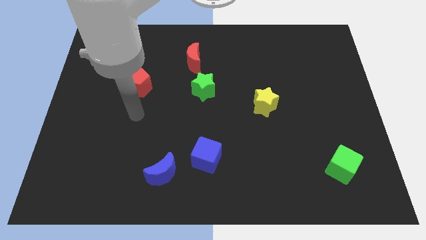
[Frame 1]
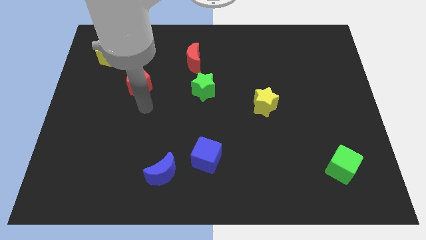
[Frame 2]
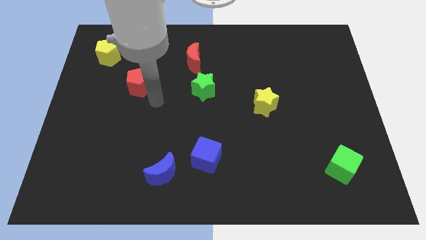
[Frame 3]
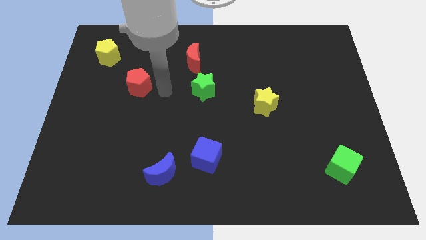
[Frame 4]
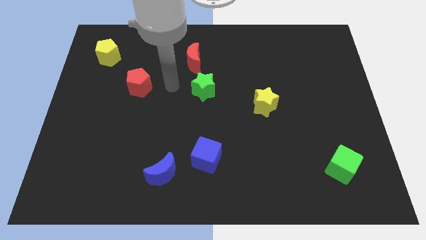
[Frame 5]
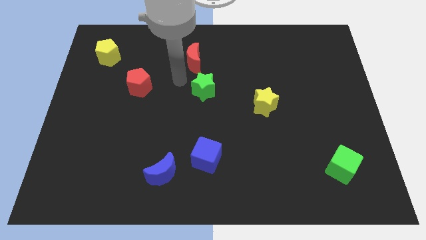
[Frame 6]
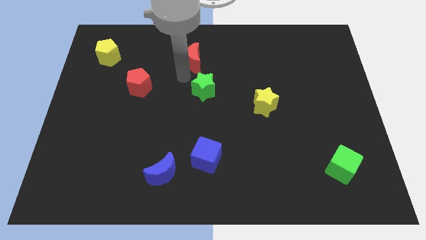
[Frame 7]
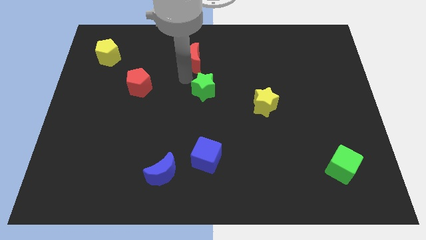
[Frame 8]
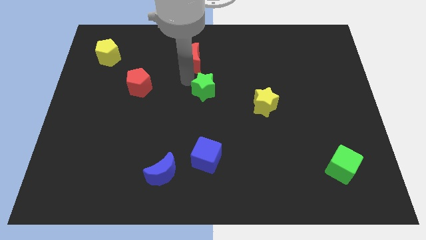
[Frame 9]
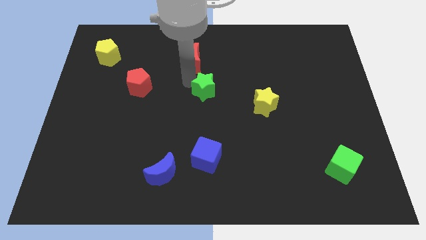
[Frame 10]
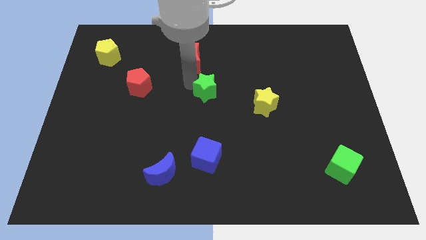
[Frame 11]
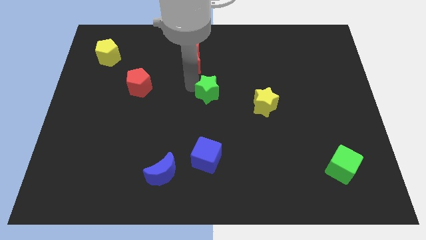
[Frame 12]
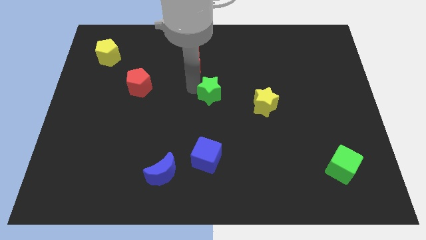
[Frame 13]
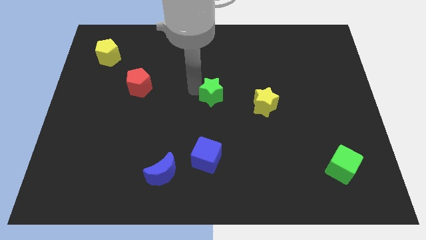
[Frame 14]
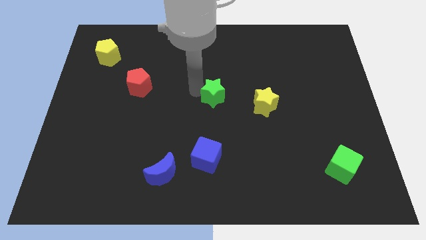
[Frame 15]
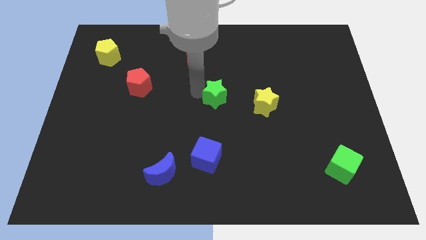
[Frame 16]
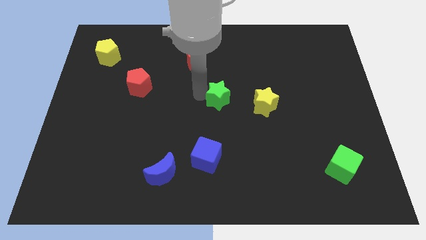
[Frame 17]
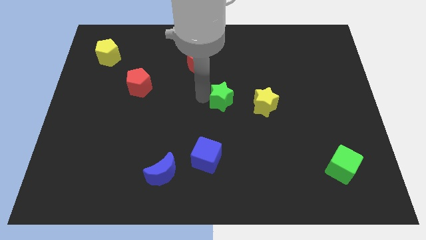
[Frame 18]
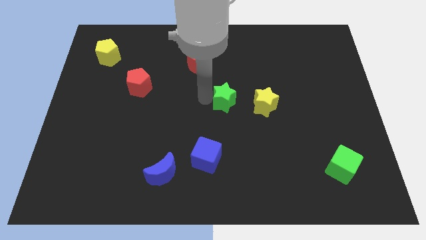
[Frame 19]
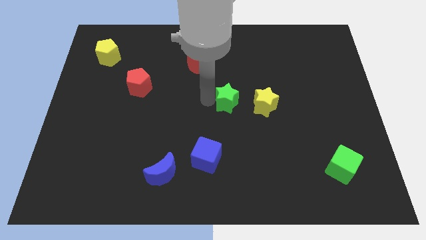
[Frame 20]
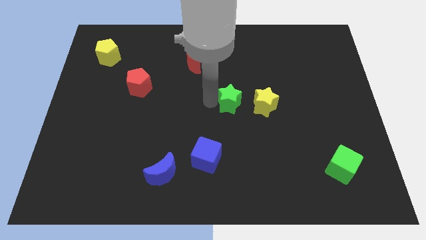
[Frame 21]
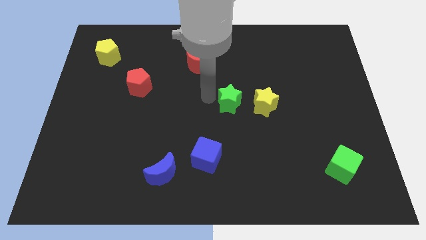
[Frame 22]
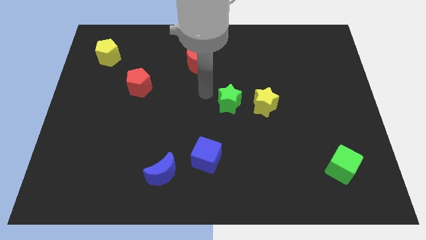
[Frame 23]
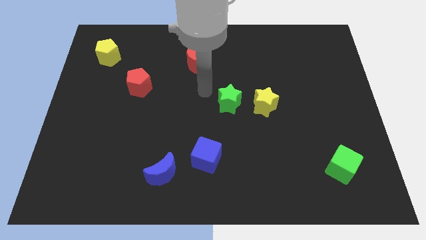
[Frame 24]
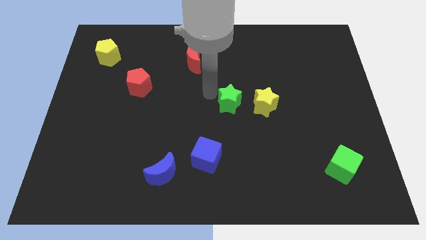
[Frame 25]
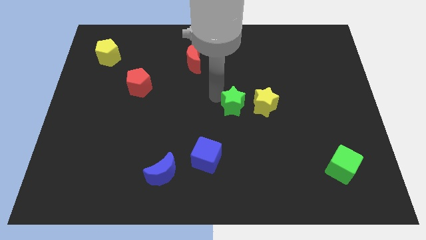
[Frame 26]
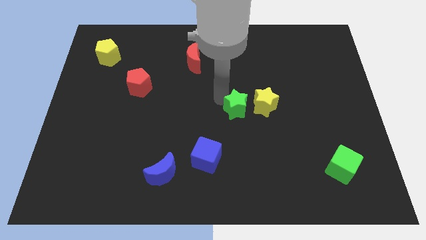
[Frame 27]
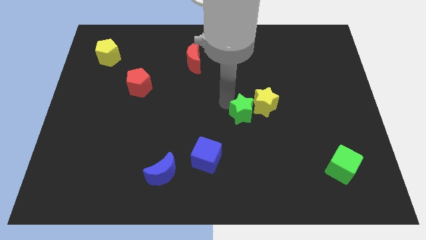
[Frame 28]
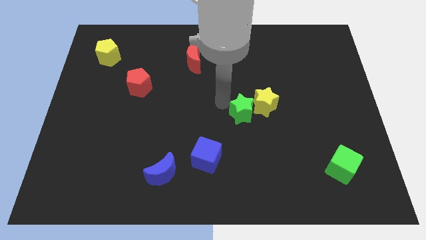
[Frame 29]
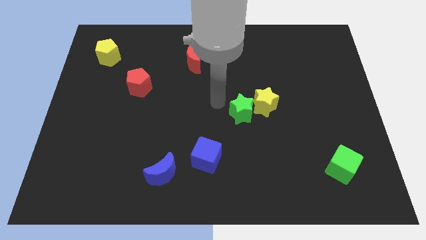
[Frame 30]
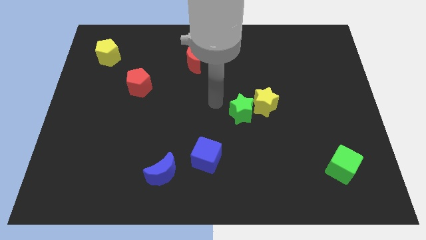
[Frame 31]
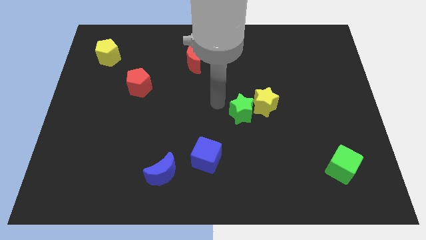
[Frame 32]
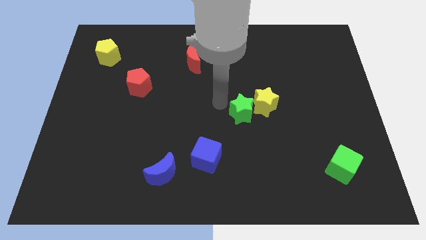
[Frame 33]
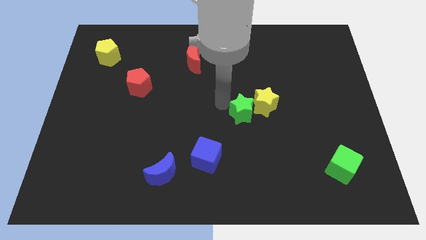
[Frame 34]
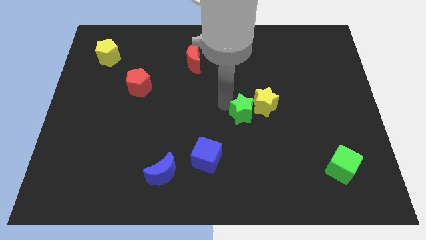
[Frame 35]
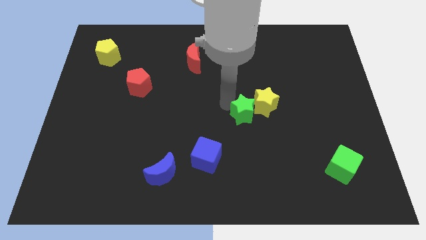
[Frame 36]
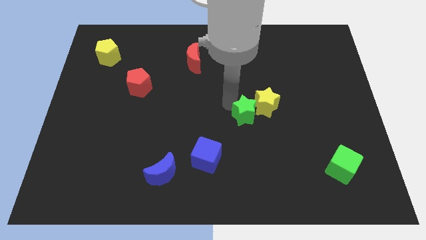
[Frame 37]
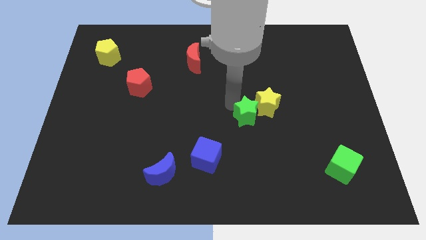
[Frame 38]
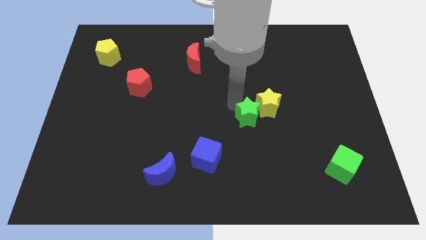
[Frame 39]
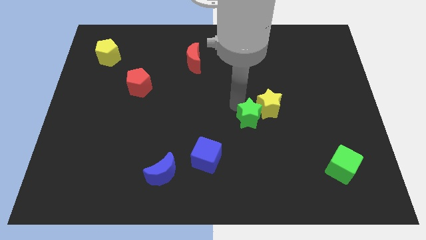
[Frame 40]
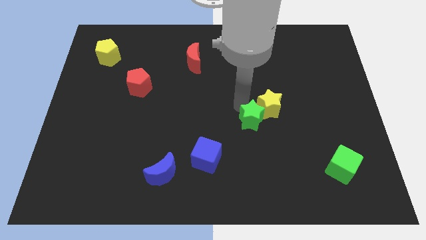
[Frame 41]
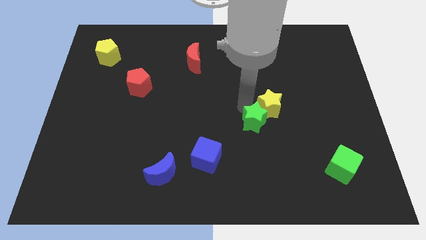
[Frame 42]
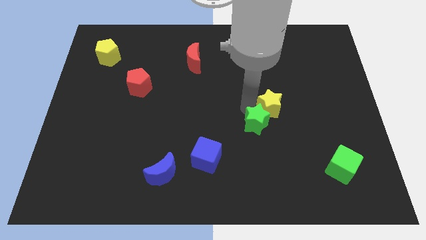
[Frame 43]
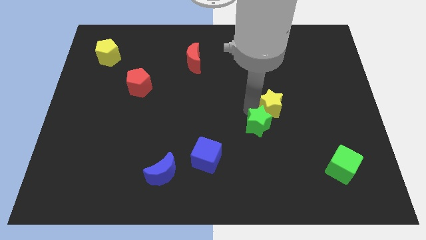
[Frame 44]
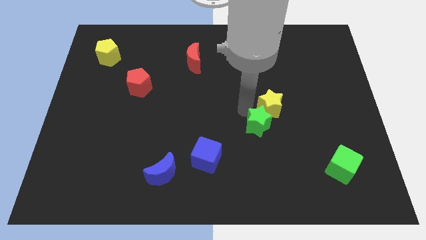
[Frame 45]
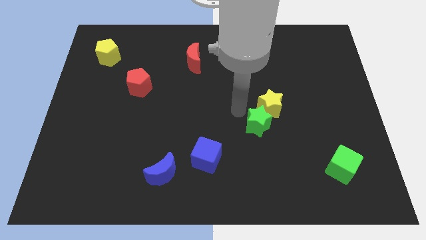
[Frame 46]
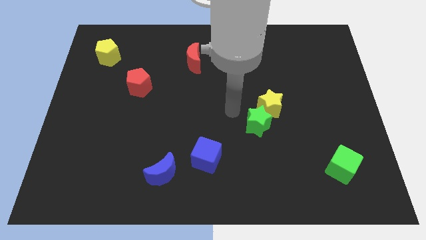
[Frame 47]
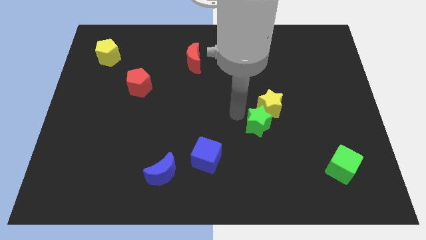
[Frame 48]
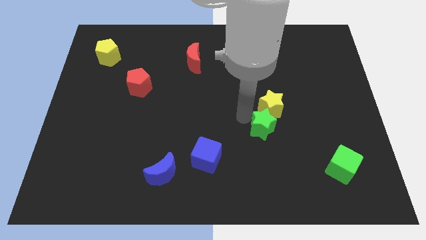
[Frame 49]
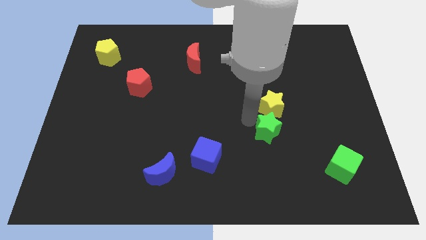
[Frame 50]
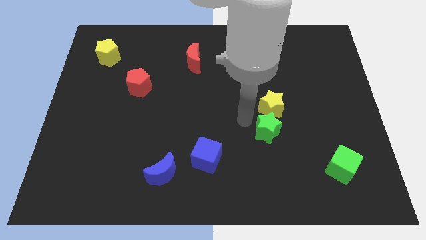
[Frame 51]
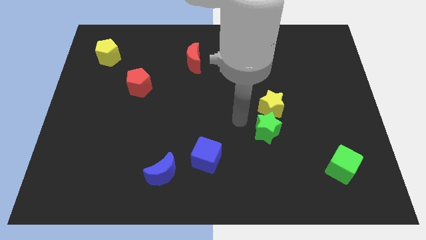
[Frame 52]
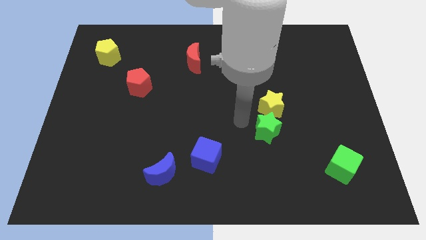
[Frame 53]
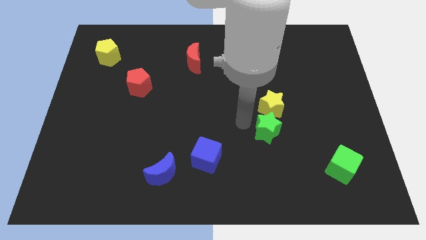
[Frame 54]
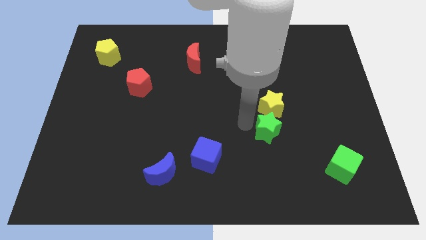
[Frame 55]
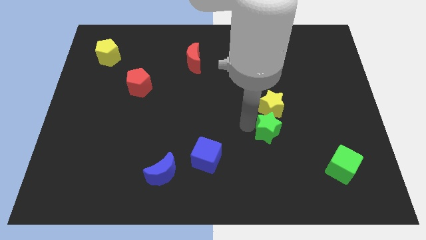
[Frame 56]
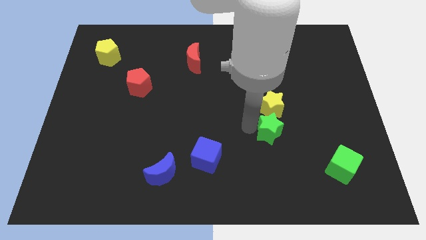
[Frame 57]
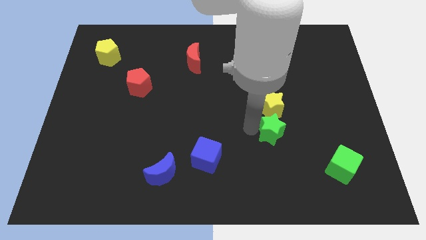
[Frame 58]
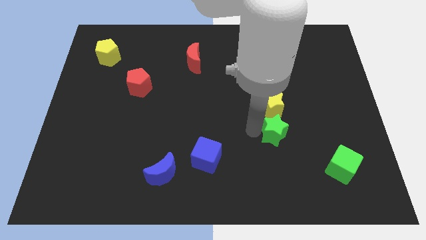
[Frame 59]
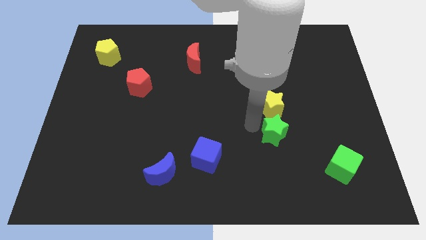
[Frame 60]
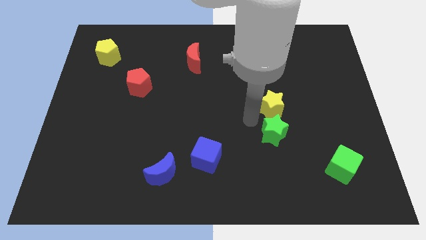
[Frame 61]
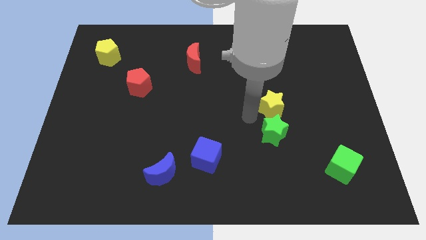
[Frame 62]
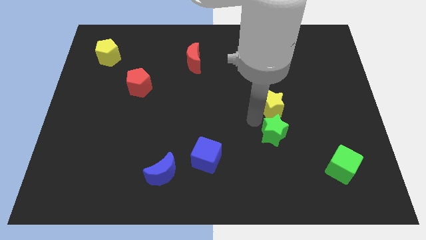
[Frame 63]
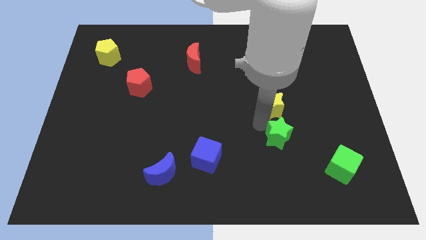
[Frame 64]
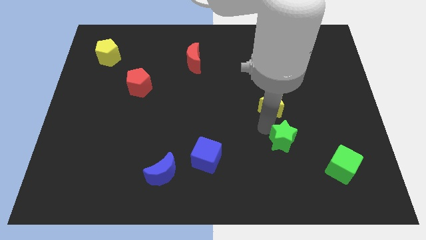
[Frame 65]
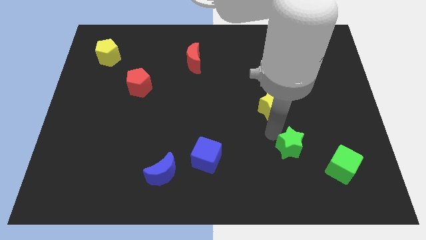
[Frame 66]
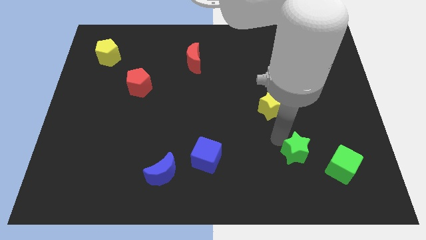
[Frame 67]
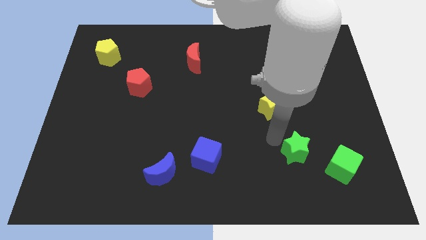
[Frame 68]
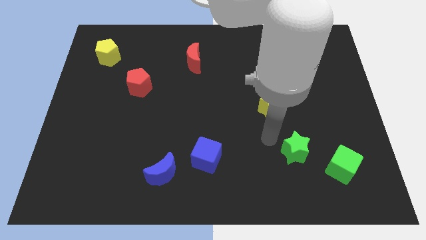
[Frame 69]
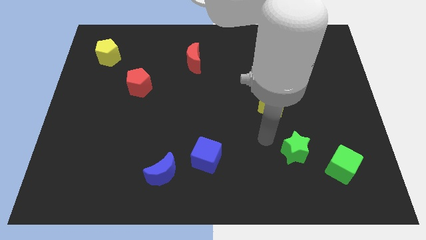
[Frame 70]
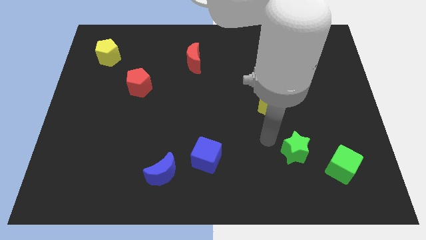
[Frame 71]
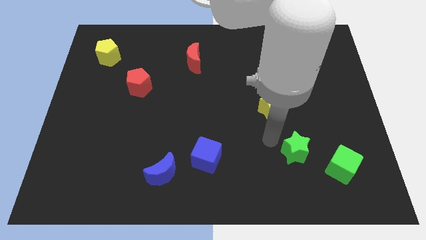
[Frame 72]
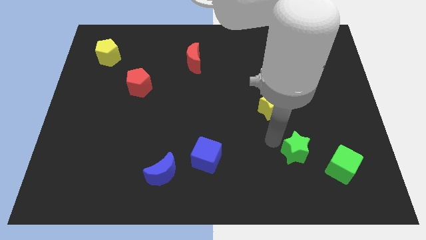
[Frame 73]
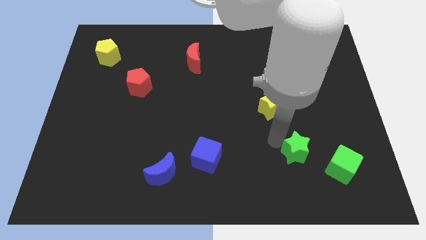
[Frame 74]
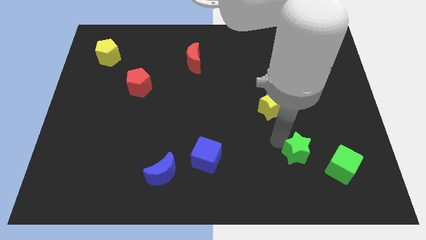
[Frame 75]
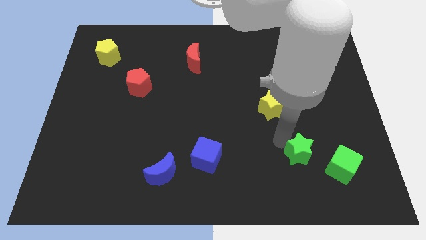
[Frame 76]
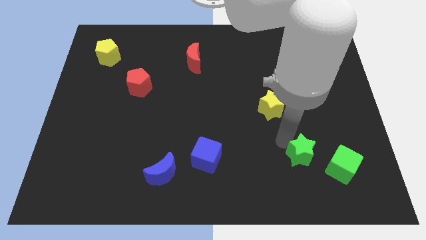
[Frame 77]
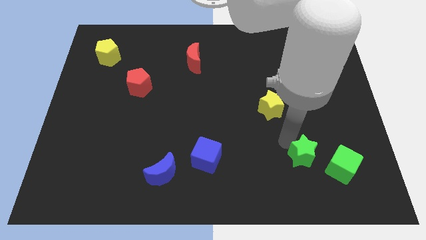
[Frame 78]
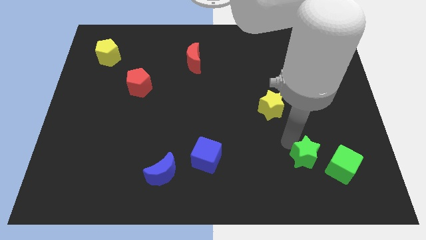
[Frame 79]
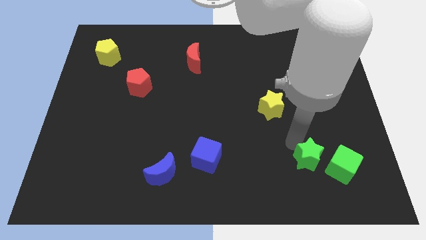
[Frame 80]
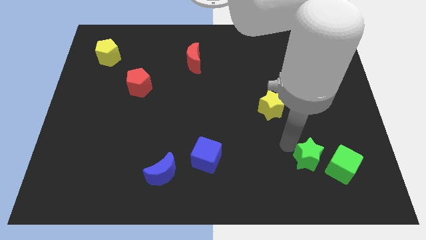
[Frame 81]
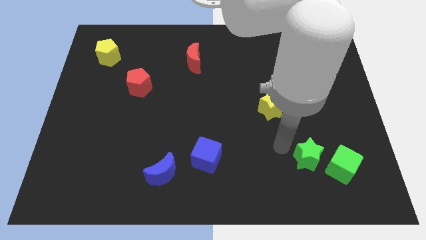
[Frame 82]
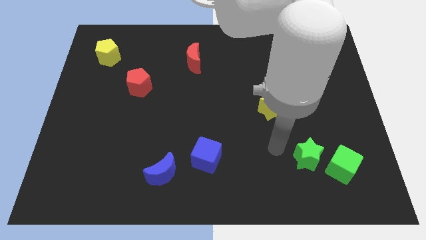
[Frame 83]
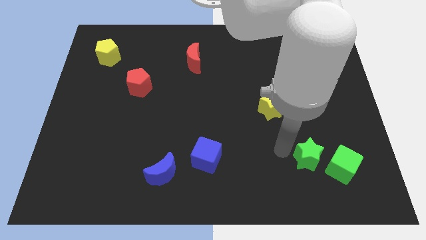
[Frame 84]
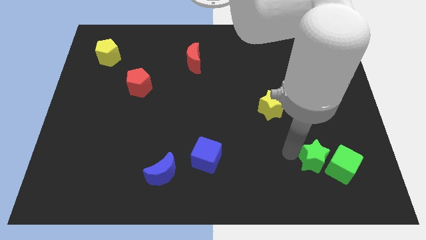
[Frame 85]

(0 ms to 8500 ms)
push the green star close to the green cube
